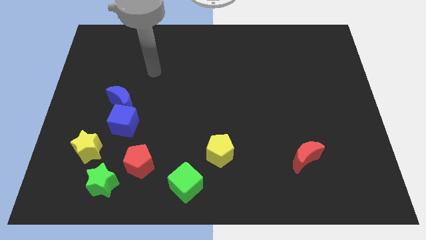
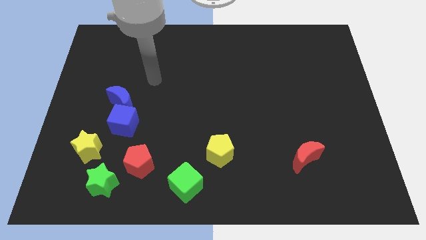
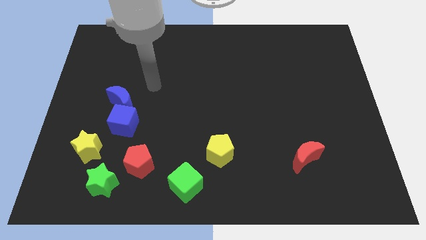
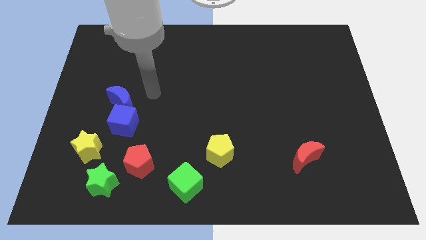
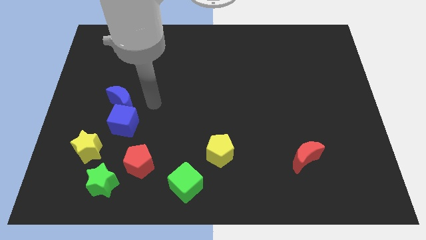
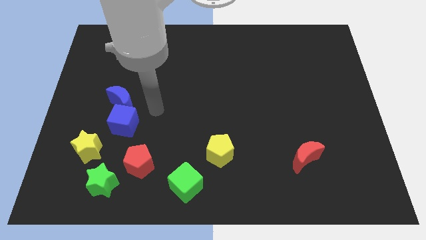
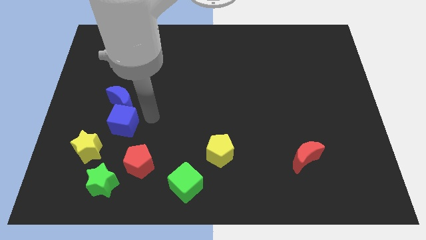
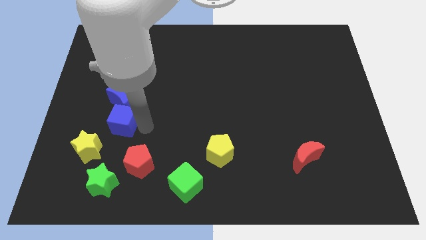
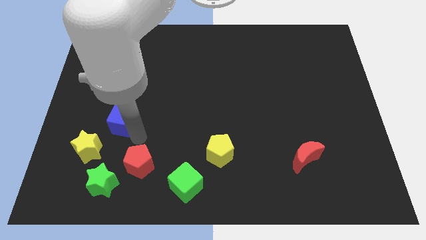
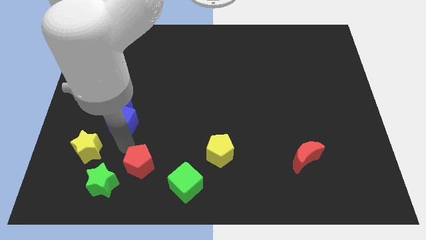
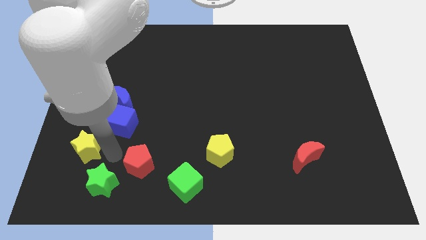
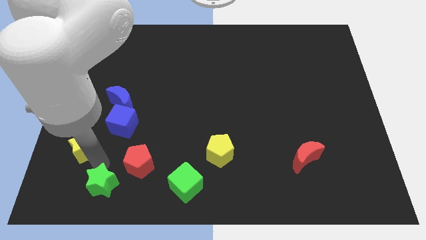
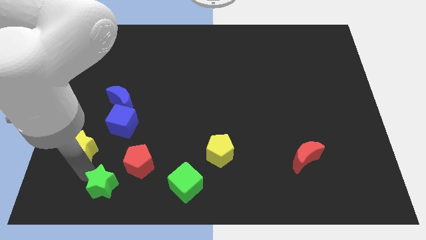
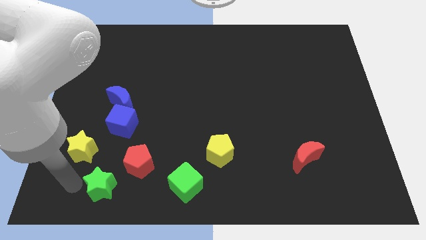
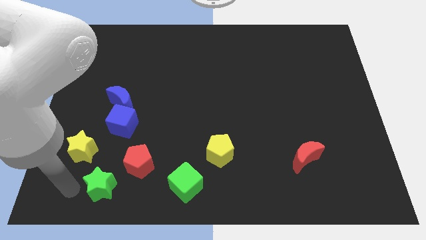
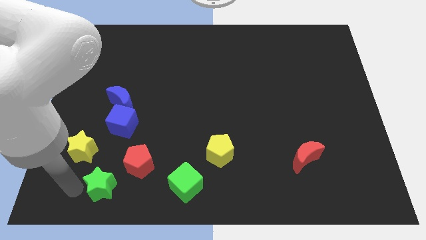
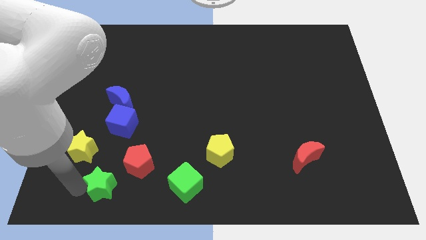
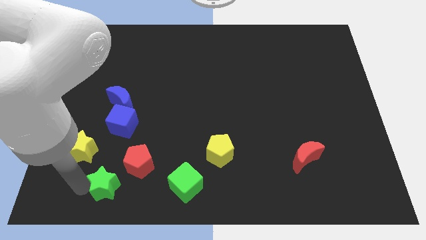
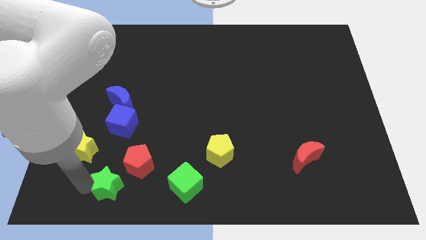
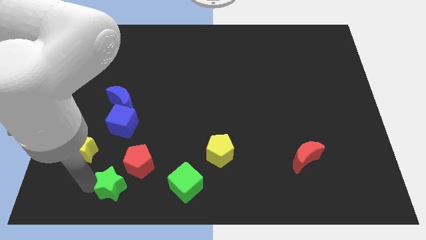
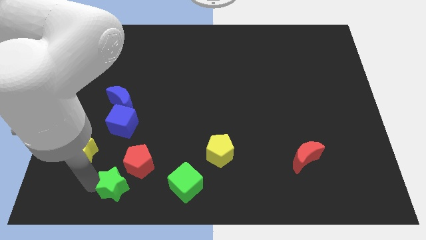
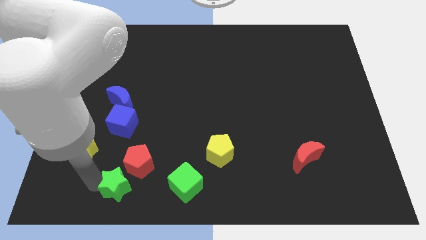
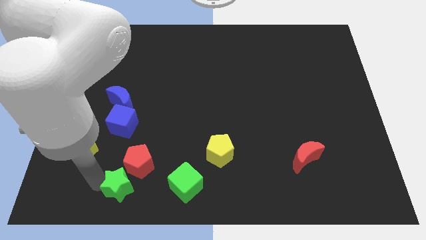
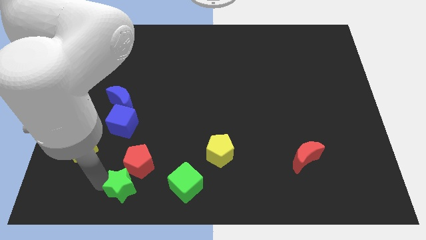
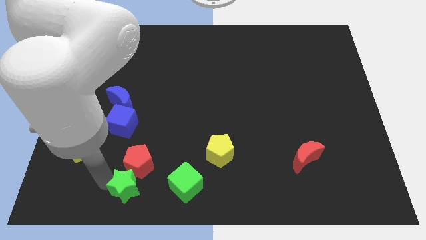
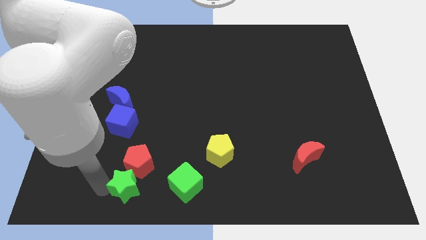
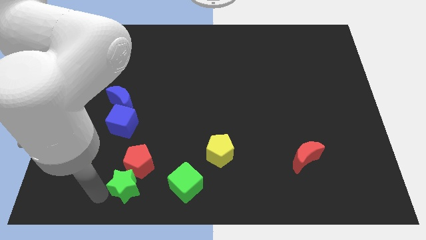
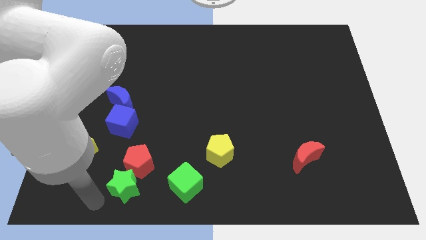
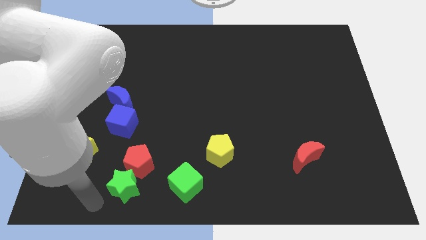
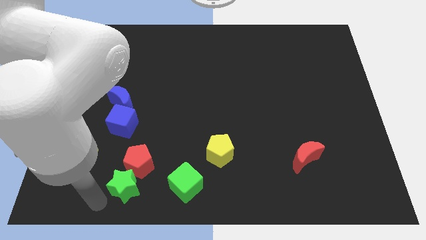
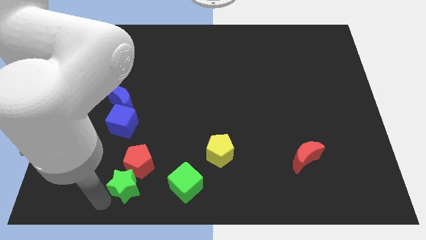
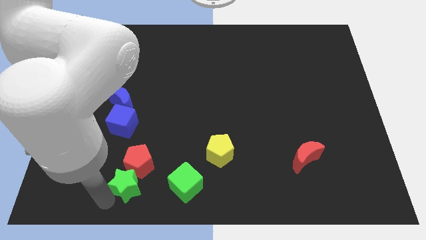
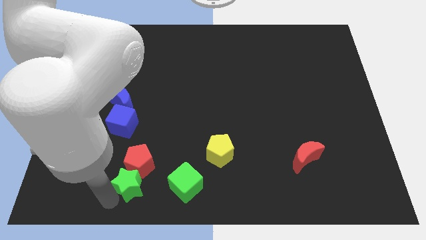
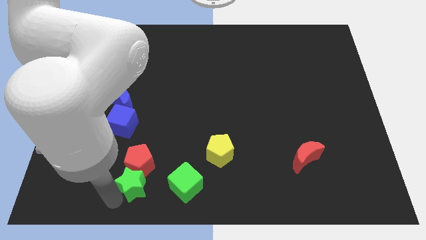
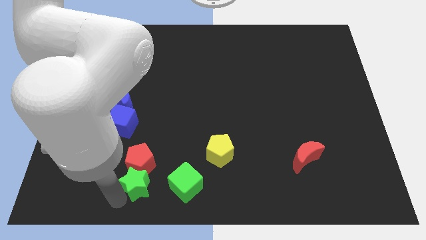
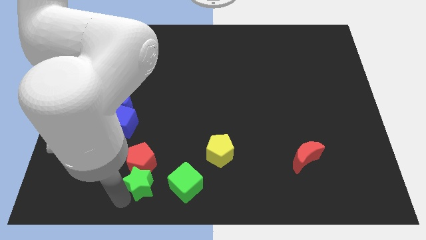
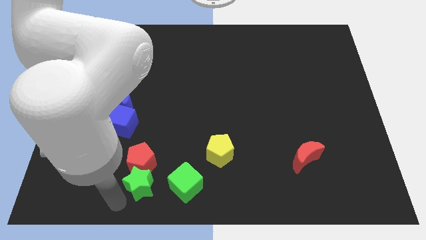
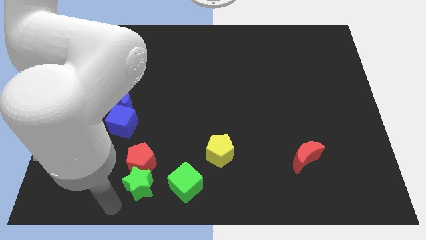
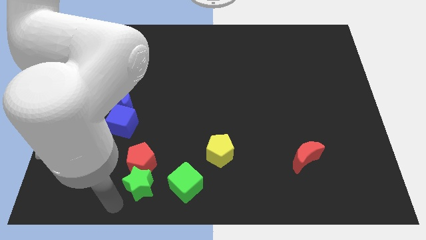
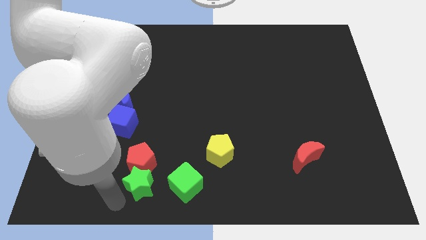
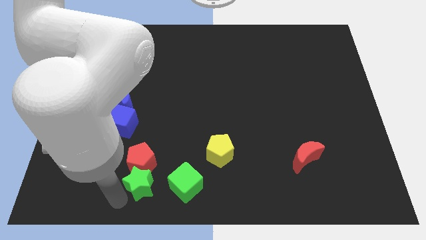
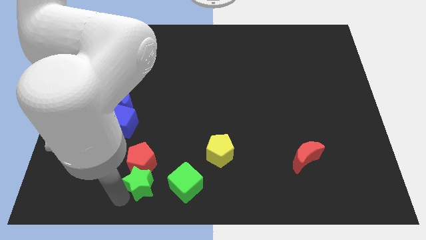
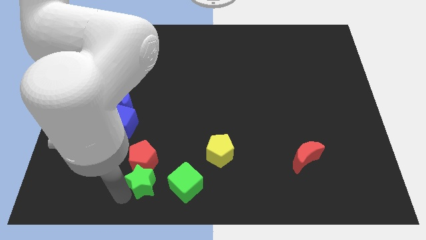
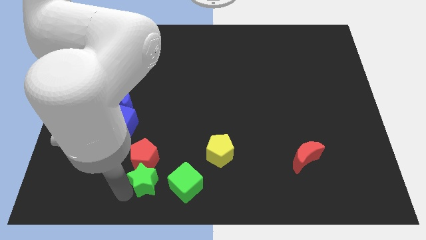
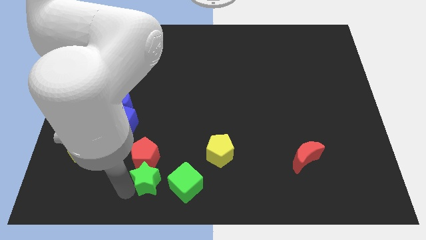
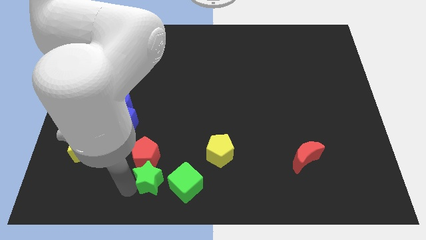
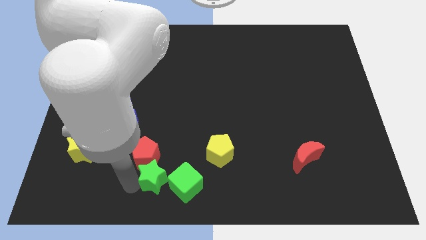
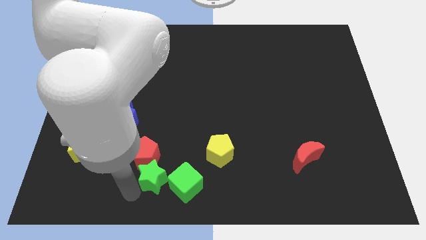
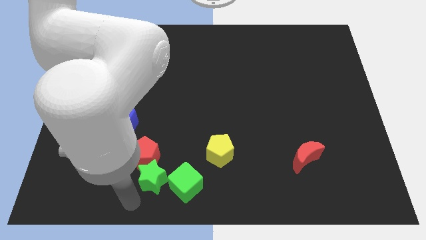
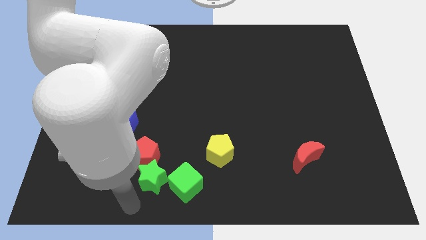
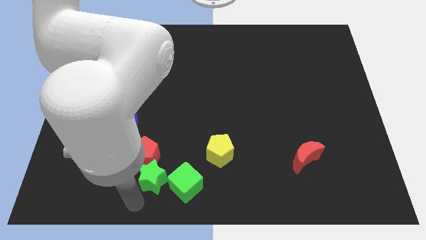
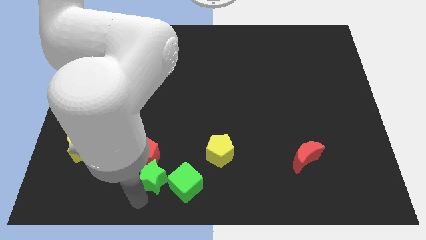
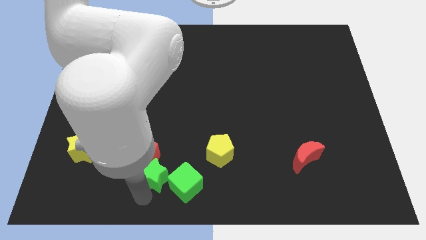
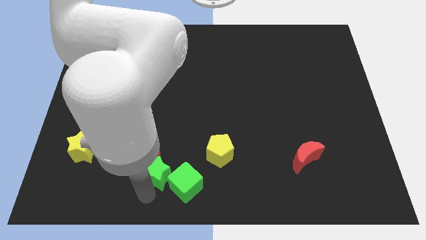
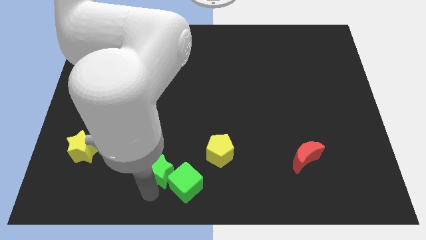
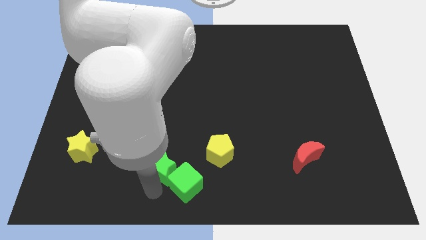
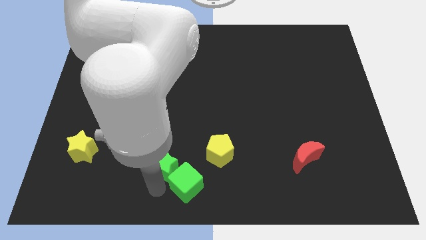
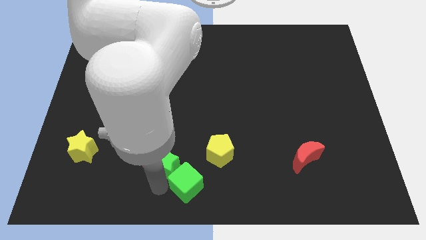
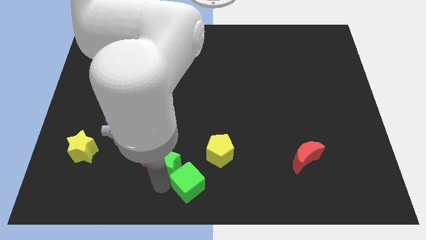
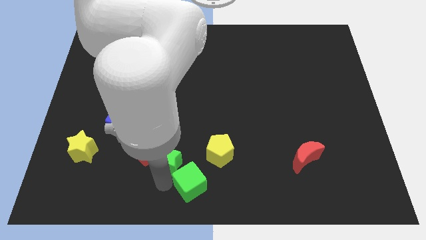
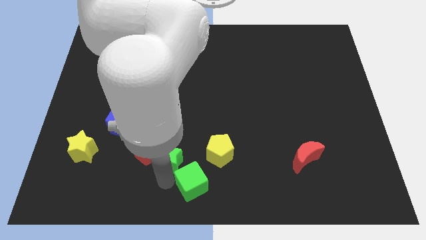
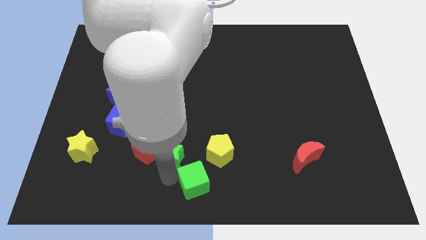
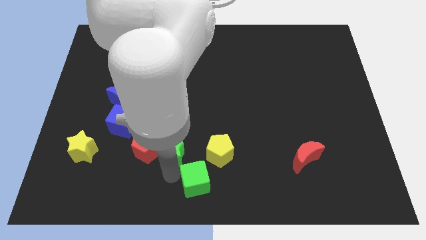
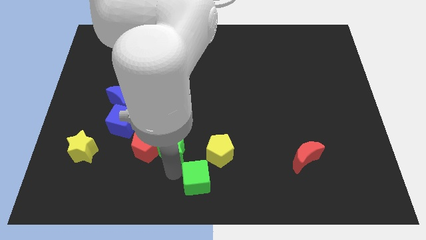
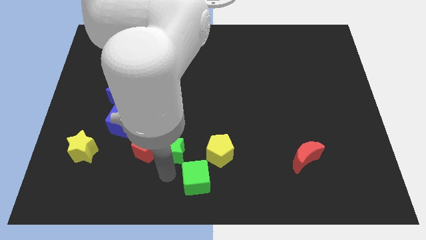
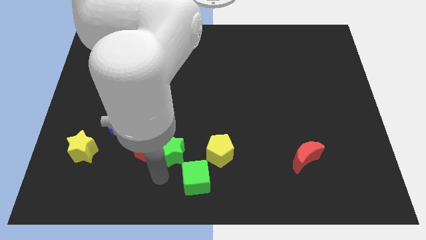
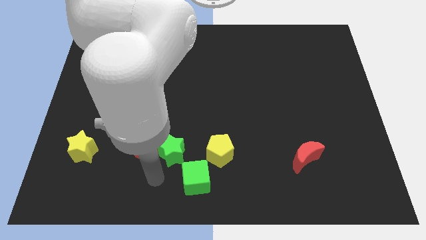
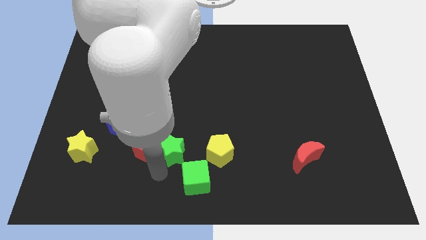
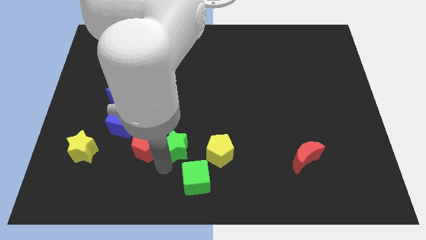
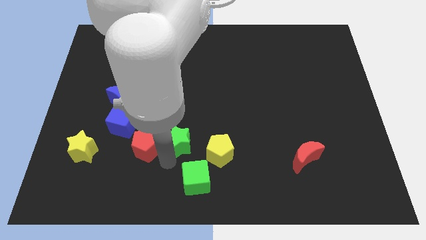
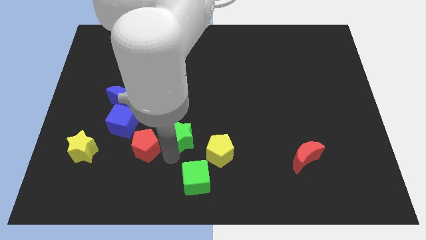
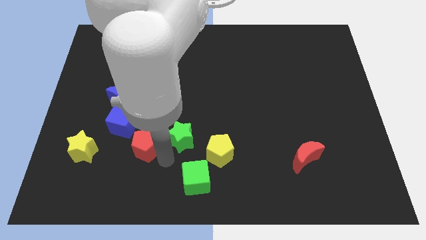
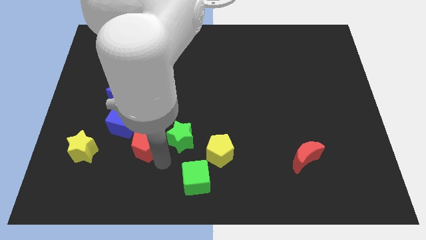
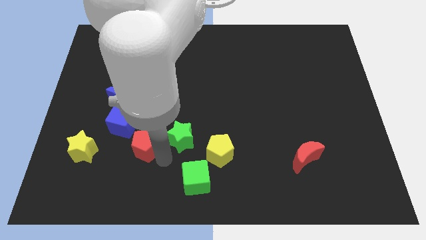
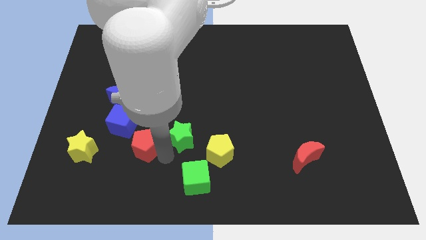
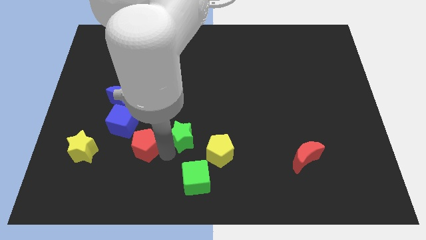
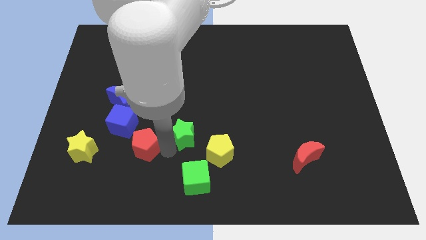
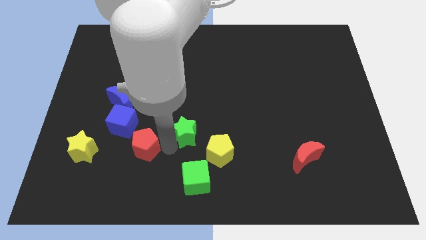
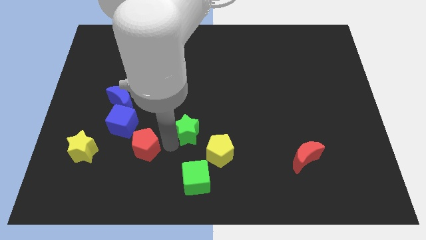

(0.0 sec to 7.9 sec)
slide the green star upwards and right
